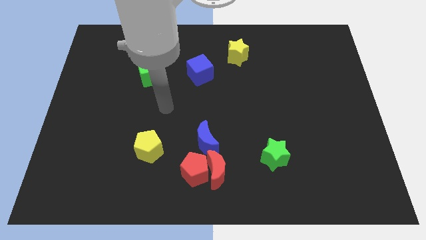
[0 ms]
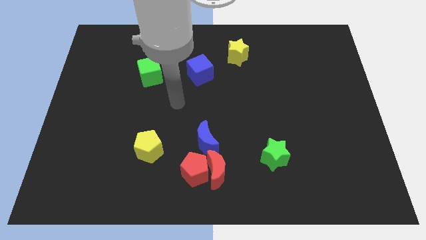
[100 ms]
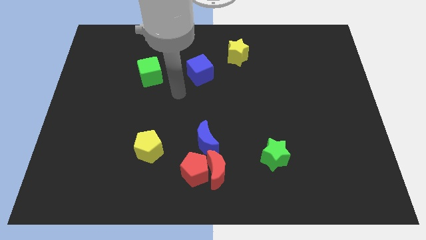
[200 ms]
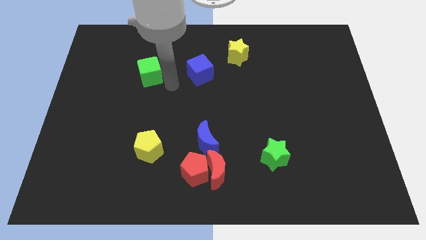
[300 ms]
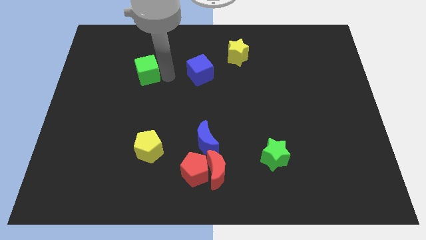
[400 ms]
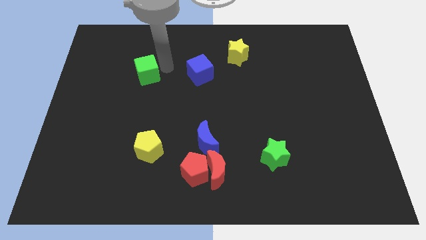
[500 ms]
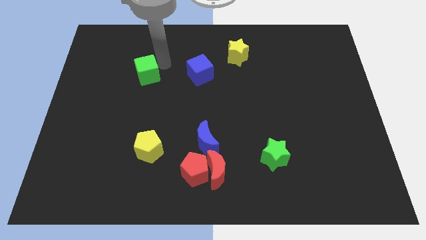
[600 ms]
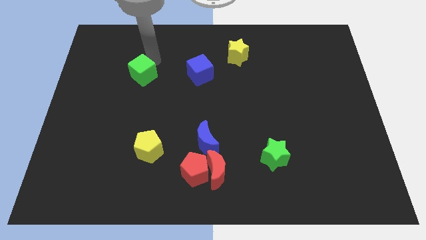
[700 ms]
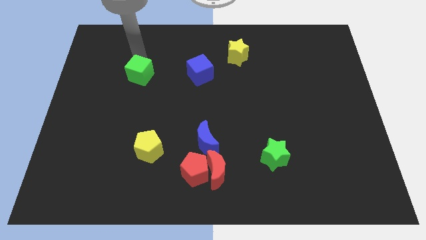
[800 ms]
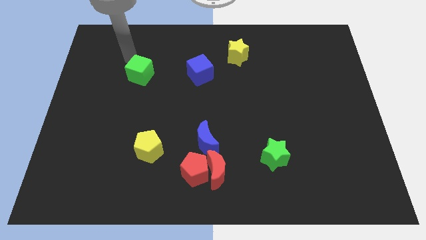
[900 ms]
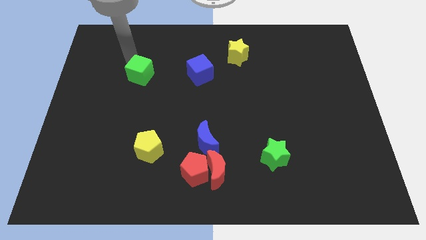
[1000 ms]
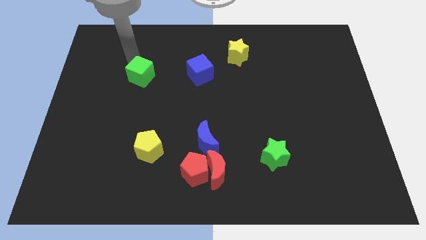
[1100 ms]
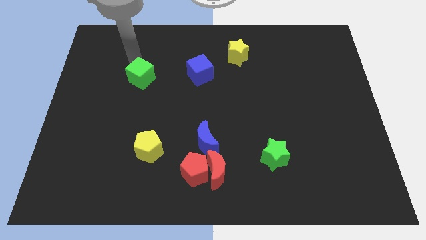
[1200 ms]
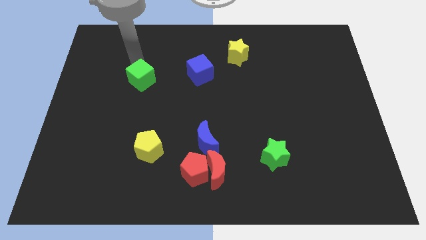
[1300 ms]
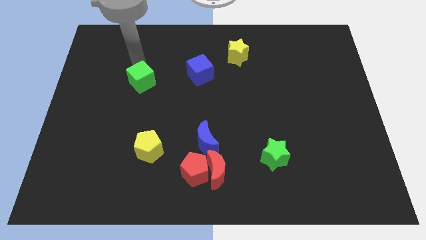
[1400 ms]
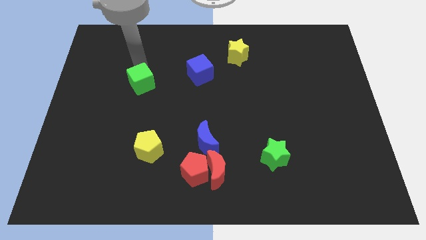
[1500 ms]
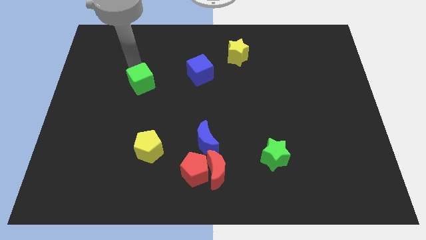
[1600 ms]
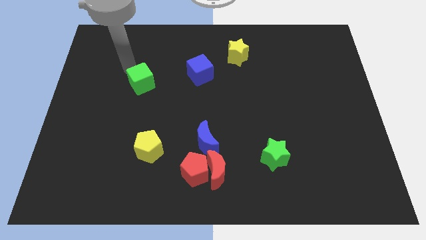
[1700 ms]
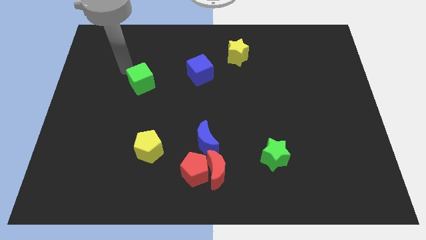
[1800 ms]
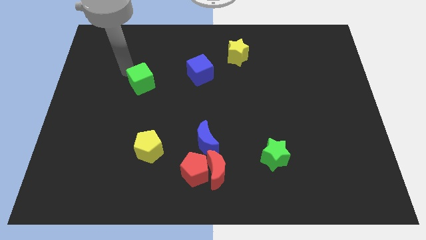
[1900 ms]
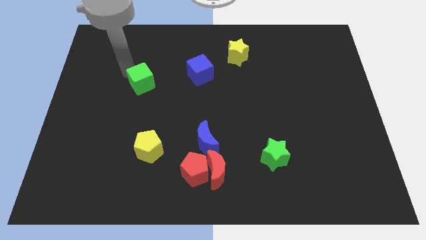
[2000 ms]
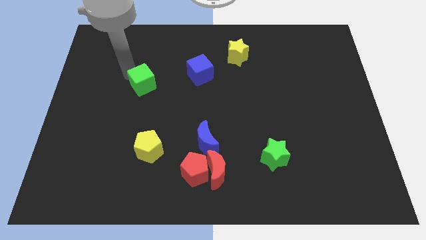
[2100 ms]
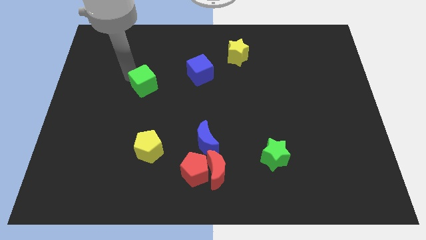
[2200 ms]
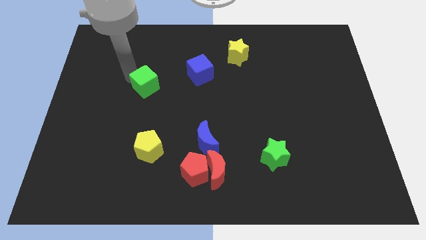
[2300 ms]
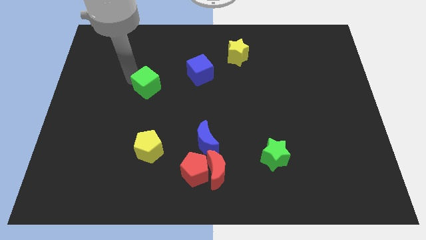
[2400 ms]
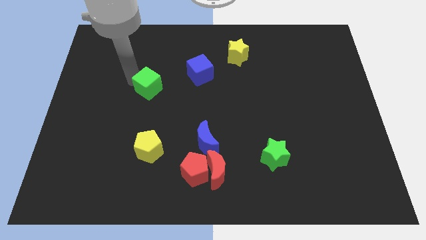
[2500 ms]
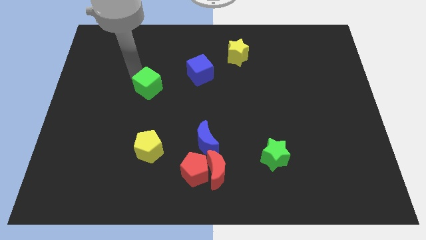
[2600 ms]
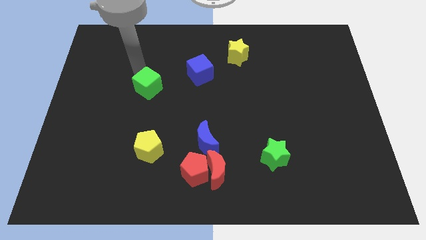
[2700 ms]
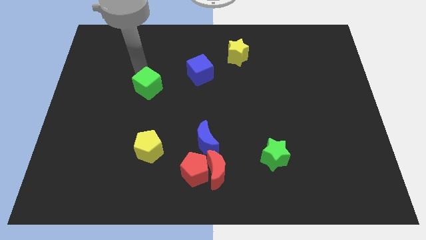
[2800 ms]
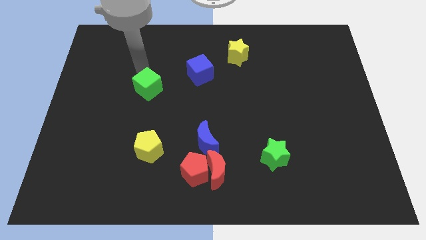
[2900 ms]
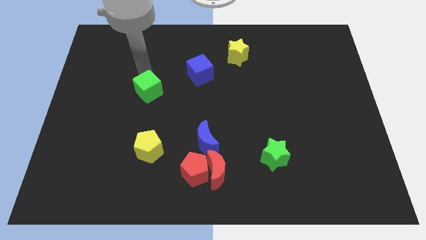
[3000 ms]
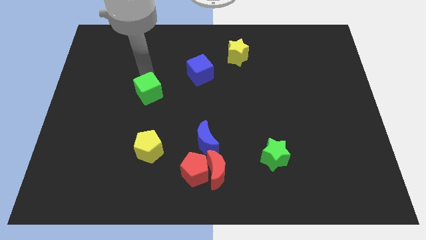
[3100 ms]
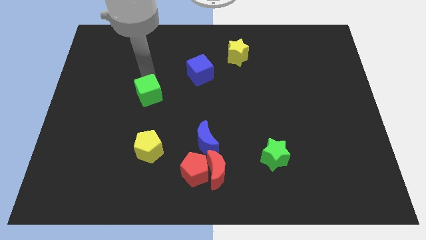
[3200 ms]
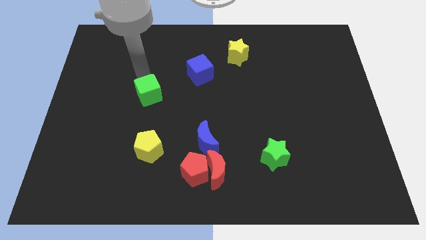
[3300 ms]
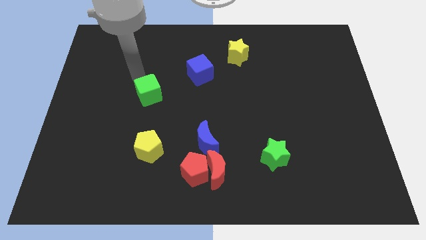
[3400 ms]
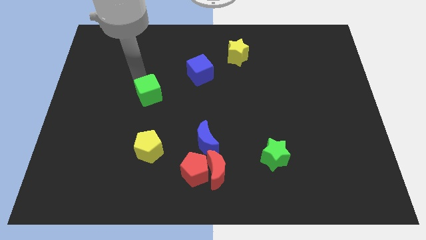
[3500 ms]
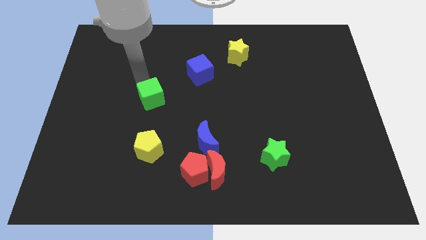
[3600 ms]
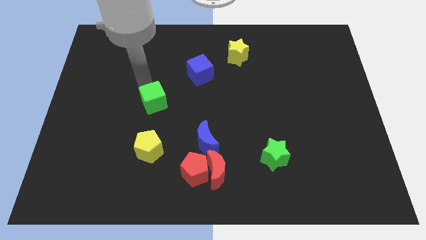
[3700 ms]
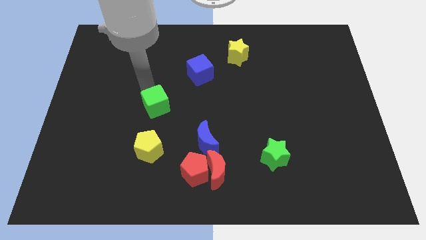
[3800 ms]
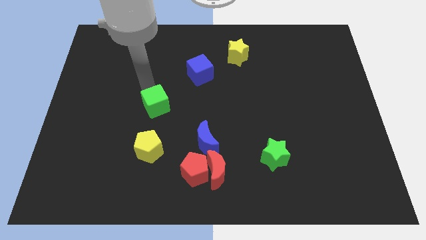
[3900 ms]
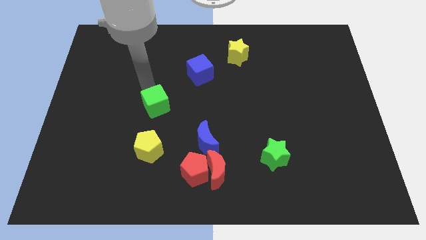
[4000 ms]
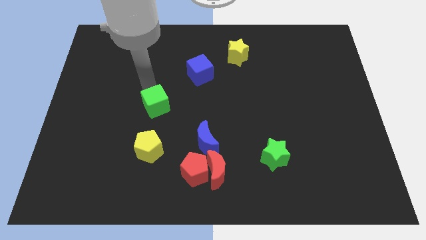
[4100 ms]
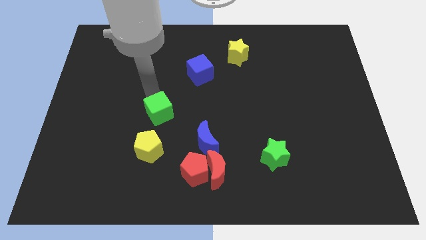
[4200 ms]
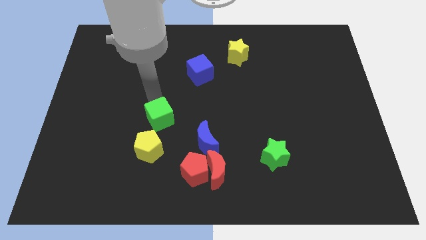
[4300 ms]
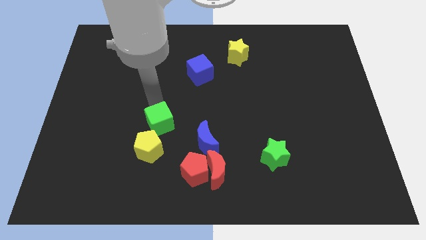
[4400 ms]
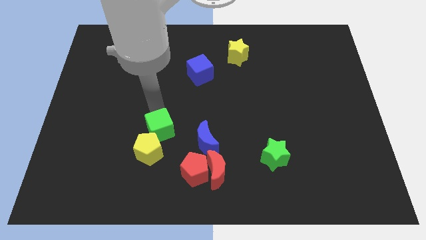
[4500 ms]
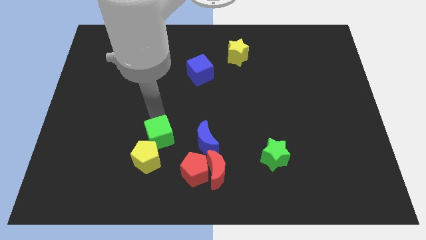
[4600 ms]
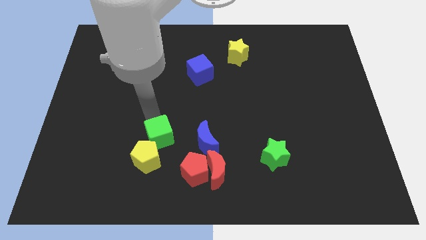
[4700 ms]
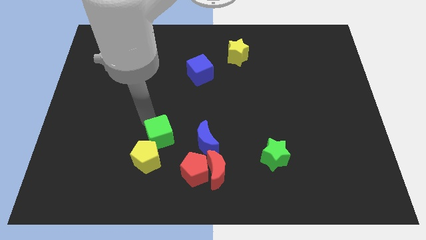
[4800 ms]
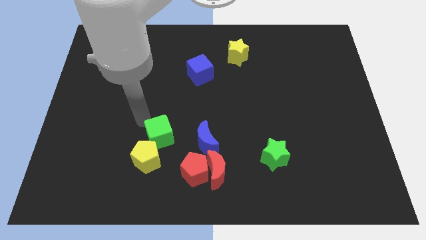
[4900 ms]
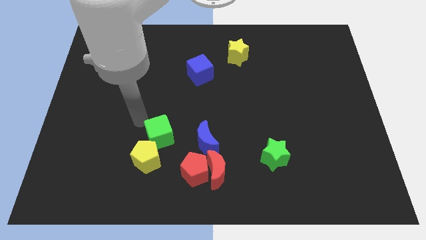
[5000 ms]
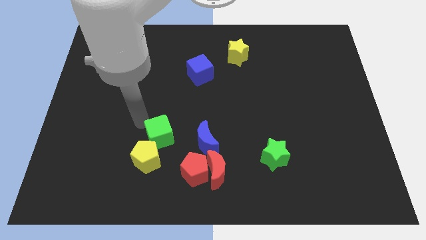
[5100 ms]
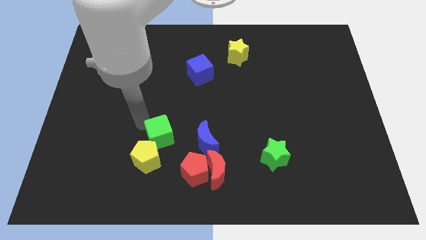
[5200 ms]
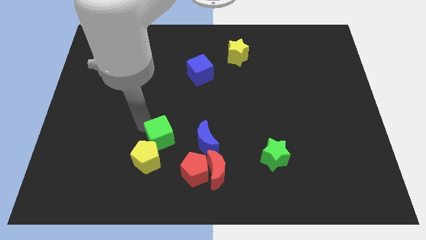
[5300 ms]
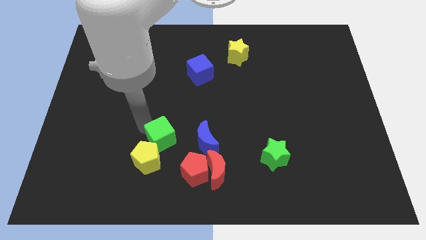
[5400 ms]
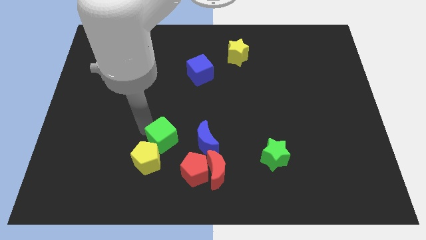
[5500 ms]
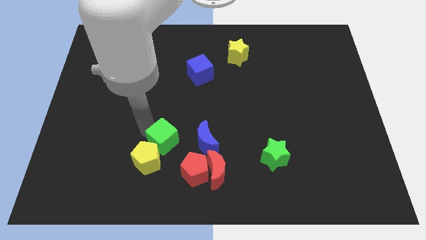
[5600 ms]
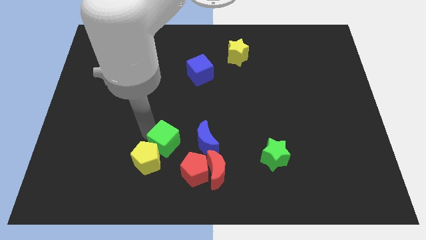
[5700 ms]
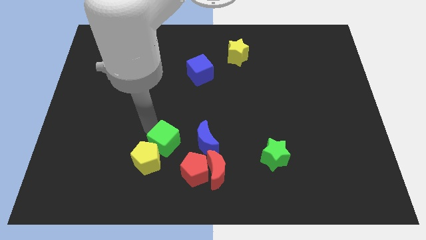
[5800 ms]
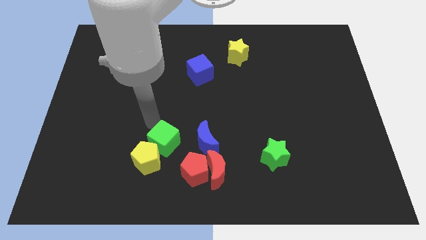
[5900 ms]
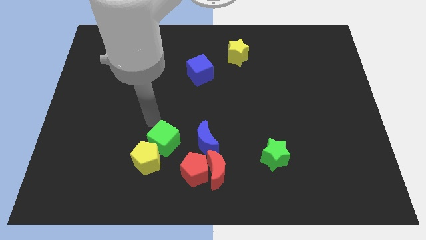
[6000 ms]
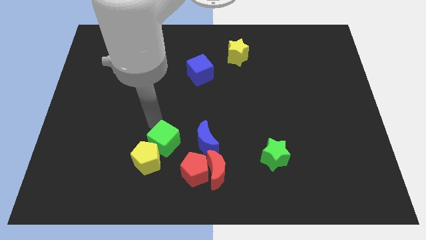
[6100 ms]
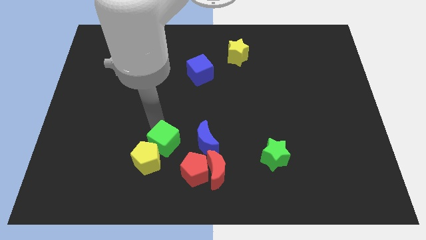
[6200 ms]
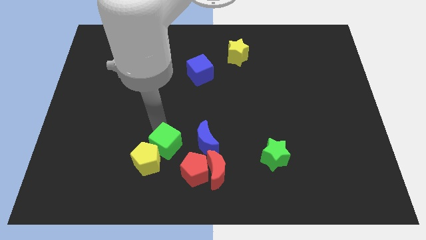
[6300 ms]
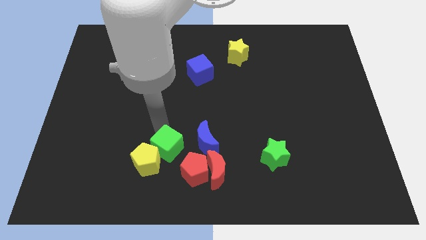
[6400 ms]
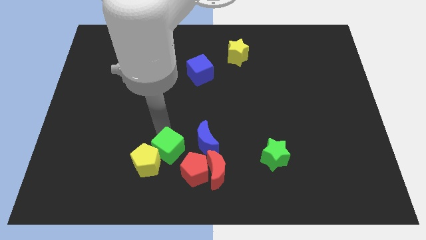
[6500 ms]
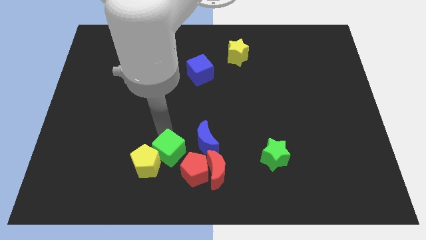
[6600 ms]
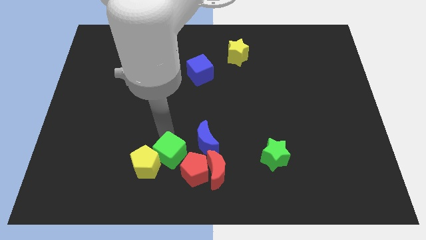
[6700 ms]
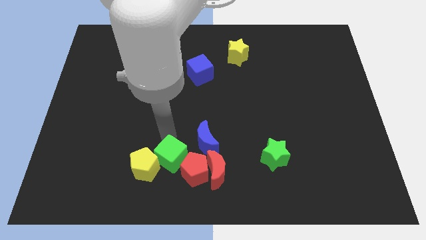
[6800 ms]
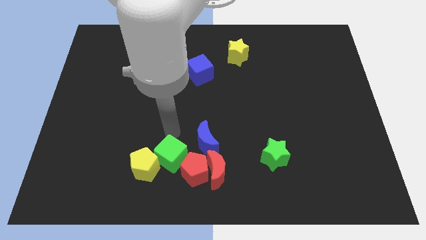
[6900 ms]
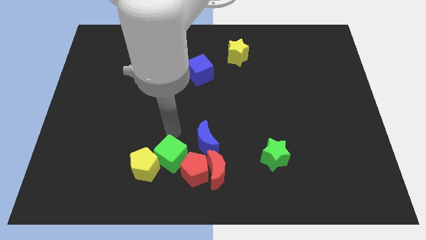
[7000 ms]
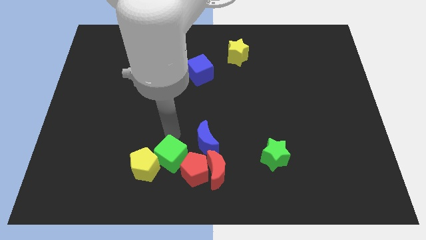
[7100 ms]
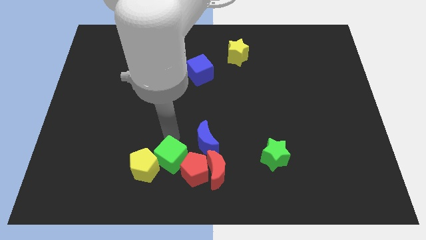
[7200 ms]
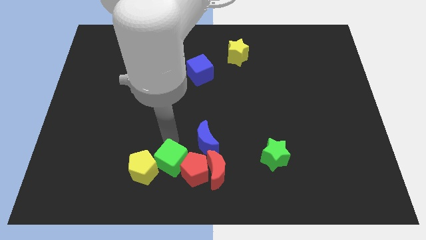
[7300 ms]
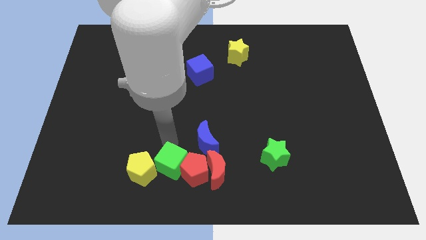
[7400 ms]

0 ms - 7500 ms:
put the green cube to the bottom
